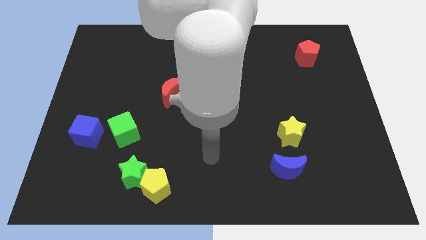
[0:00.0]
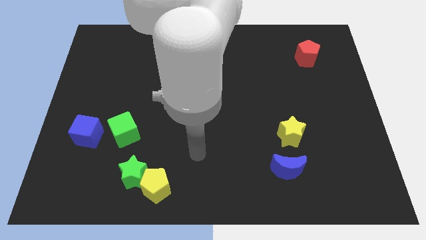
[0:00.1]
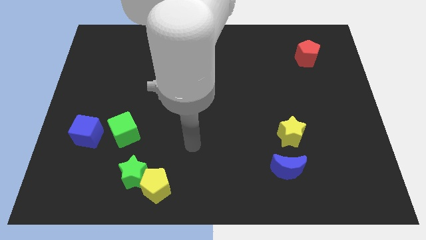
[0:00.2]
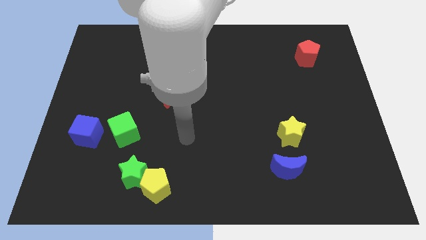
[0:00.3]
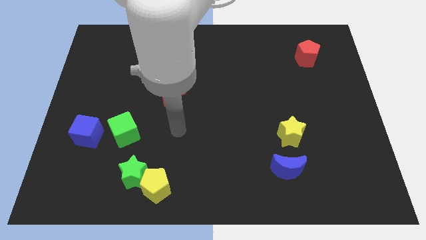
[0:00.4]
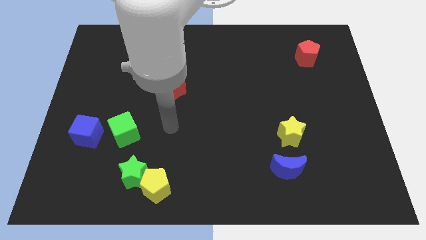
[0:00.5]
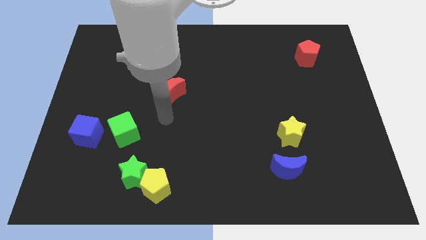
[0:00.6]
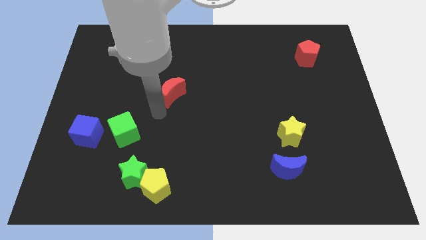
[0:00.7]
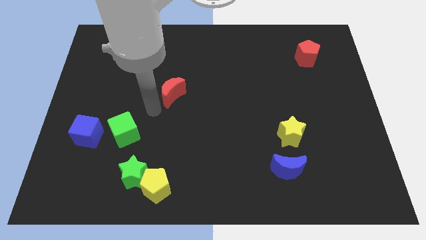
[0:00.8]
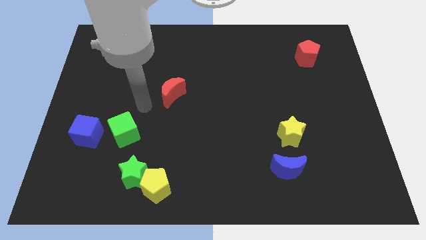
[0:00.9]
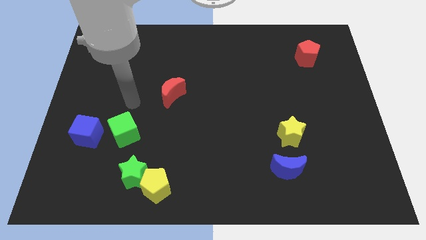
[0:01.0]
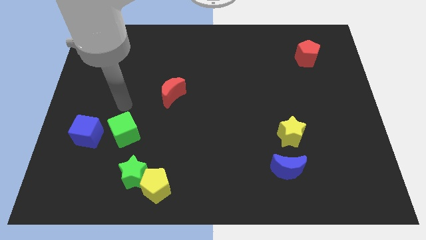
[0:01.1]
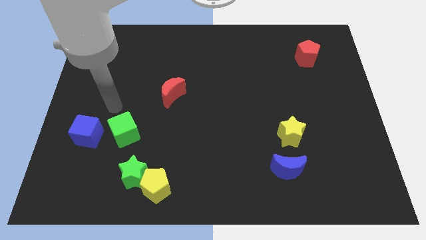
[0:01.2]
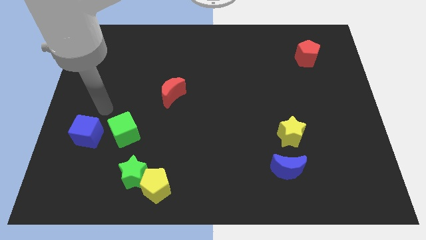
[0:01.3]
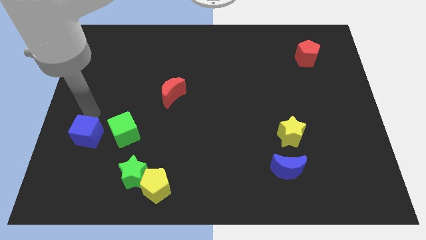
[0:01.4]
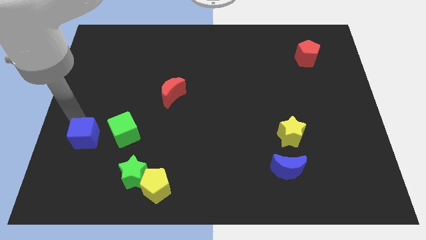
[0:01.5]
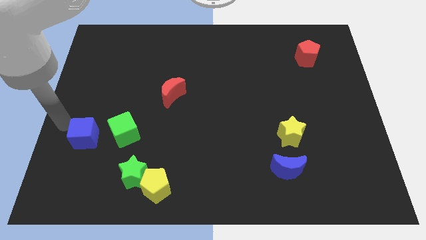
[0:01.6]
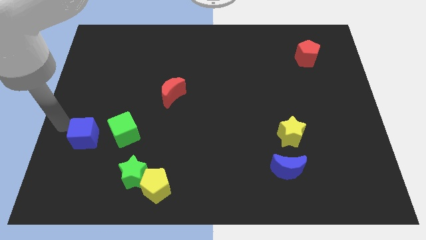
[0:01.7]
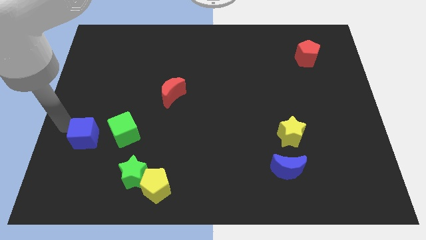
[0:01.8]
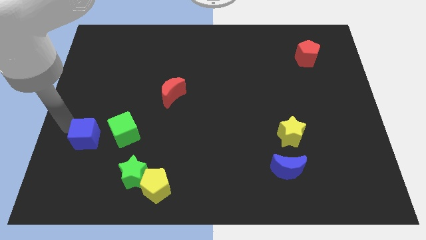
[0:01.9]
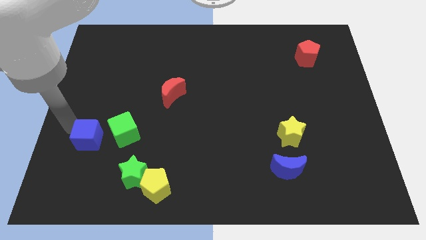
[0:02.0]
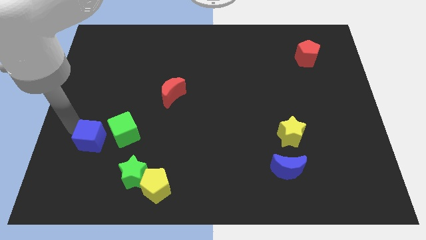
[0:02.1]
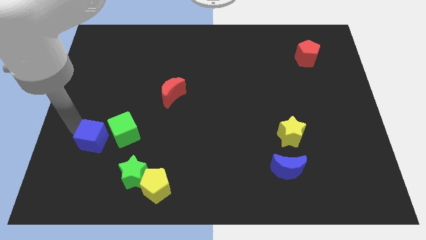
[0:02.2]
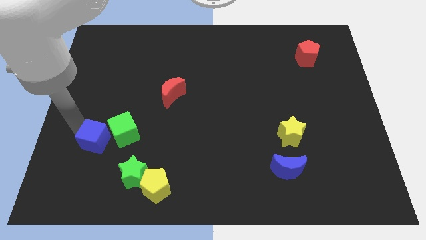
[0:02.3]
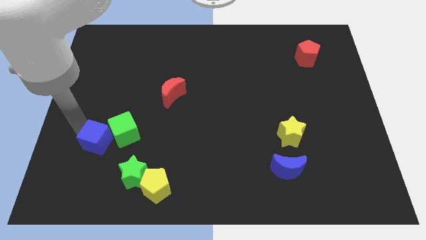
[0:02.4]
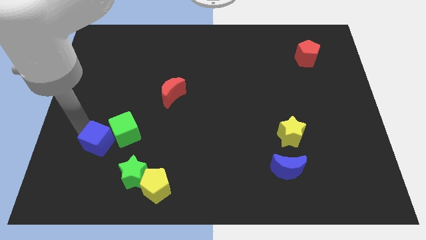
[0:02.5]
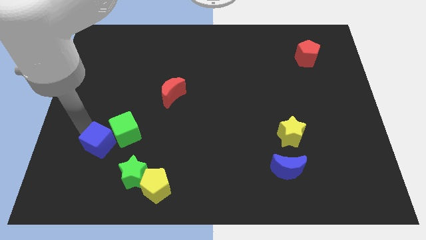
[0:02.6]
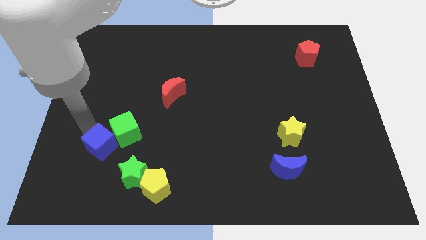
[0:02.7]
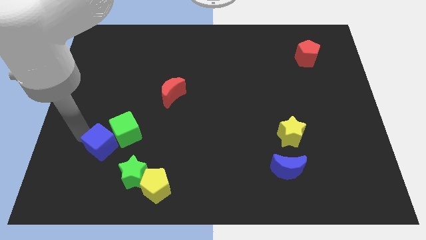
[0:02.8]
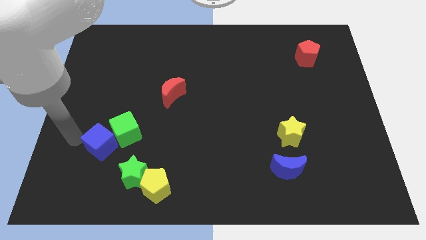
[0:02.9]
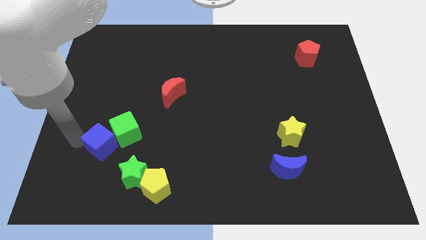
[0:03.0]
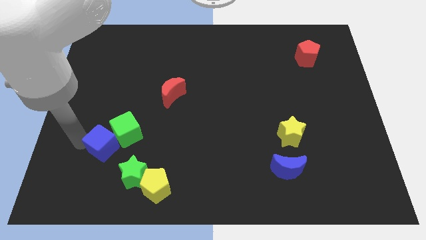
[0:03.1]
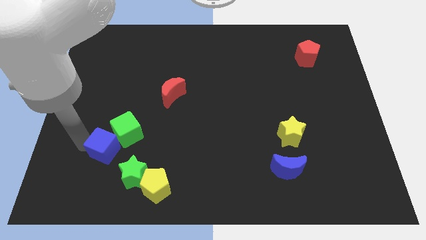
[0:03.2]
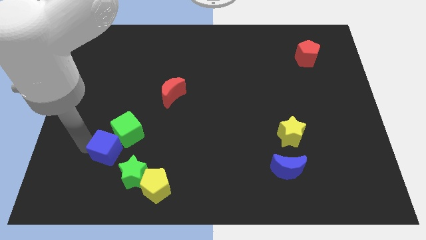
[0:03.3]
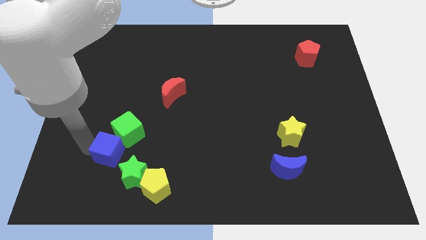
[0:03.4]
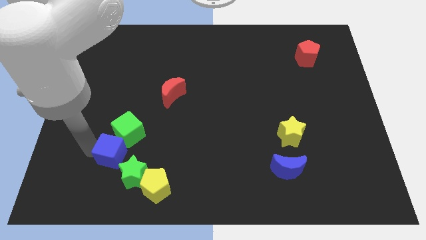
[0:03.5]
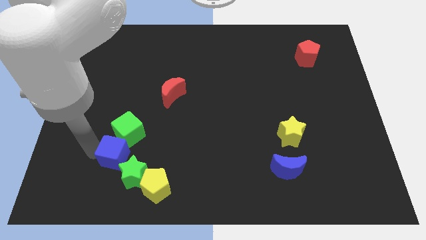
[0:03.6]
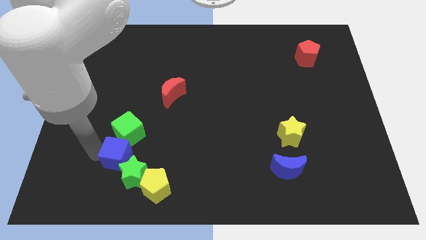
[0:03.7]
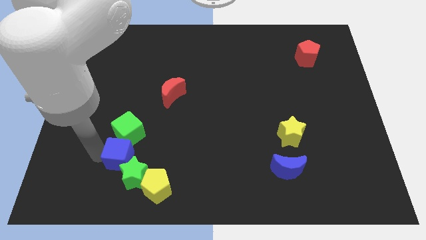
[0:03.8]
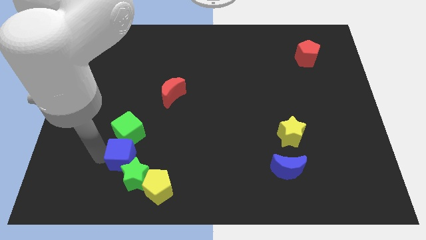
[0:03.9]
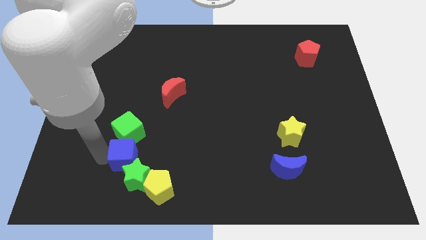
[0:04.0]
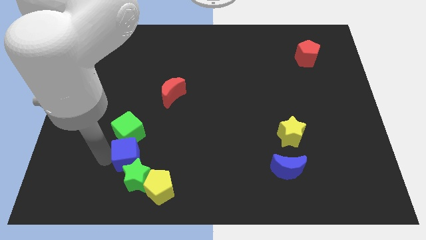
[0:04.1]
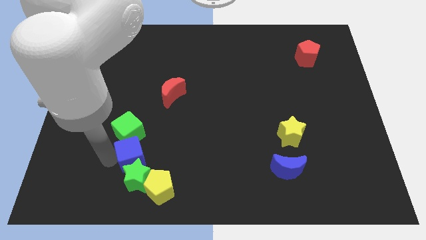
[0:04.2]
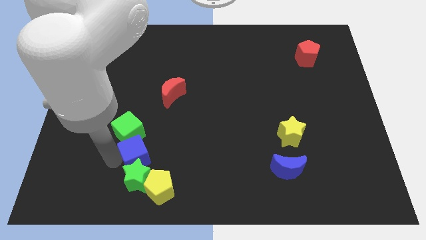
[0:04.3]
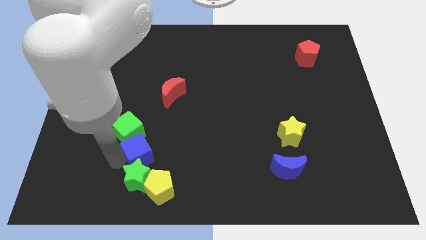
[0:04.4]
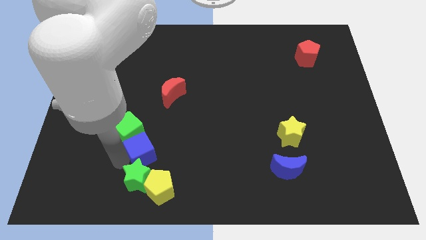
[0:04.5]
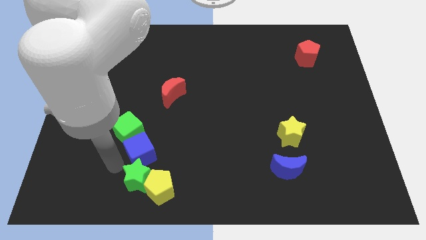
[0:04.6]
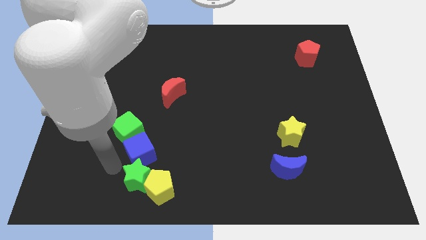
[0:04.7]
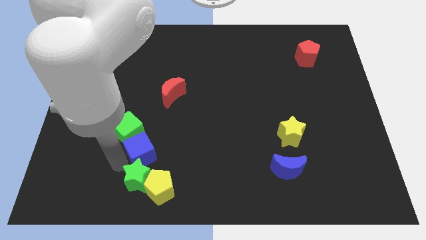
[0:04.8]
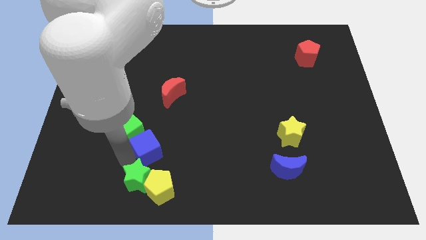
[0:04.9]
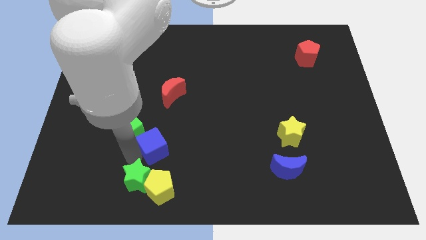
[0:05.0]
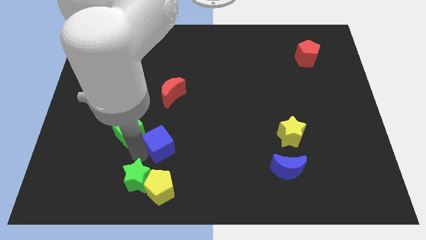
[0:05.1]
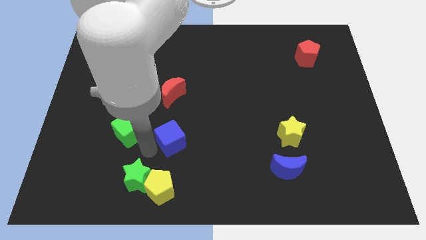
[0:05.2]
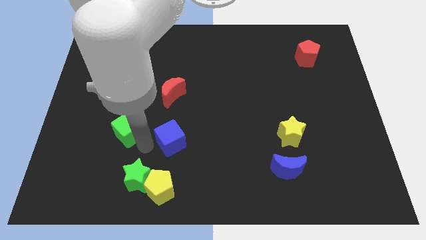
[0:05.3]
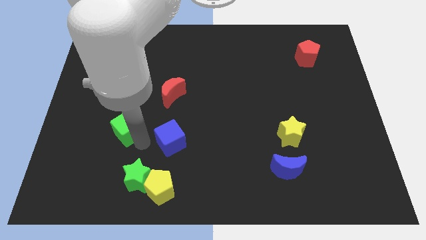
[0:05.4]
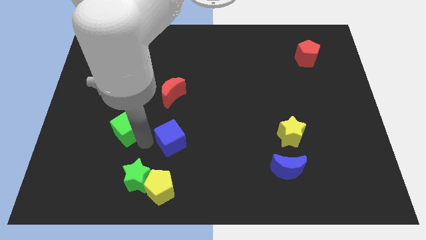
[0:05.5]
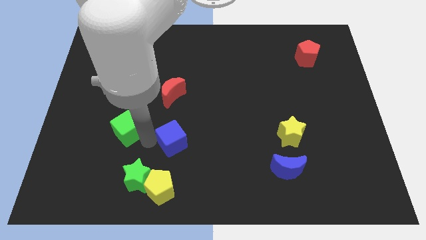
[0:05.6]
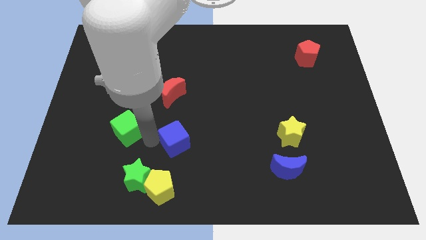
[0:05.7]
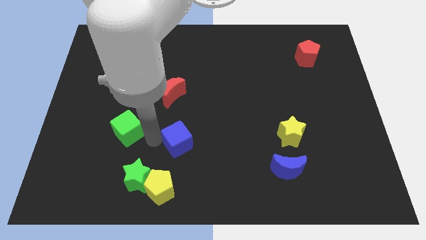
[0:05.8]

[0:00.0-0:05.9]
push the blue cube right

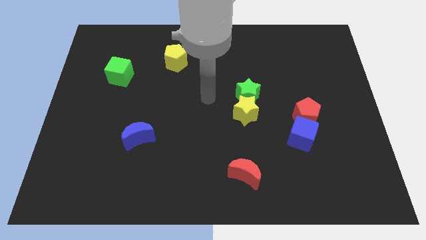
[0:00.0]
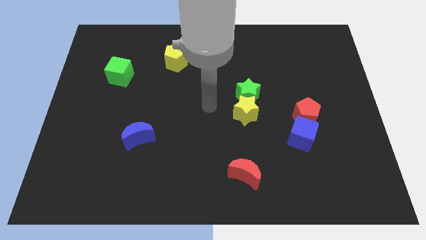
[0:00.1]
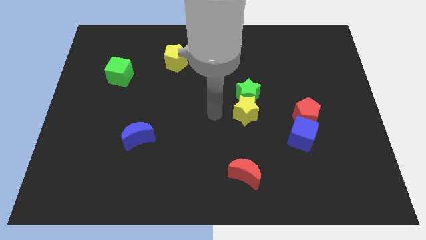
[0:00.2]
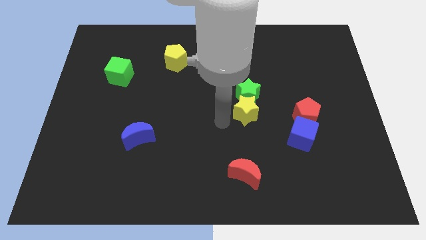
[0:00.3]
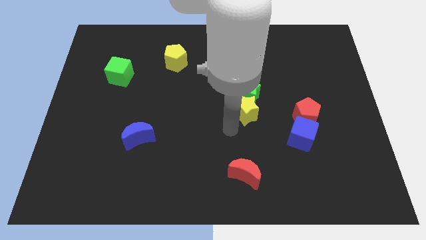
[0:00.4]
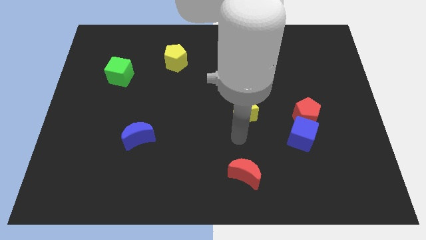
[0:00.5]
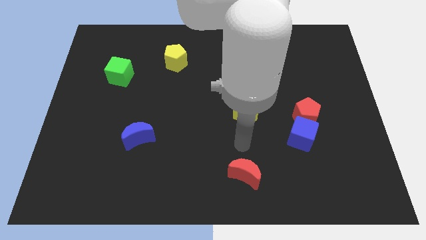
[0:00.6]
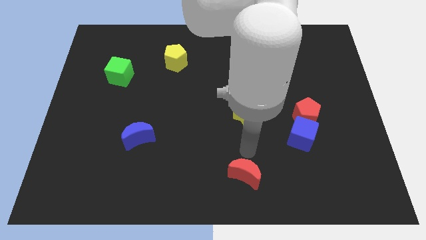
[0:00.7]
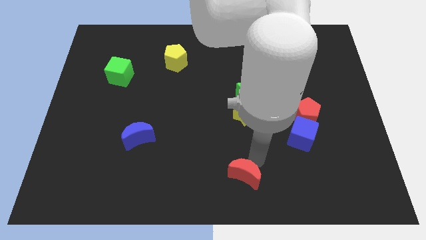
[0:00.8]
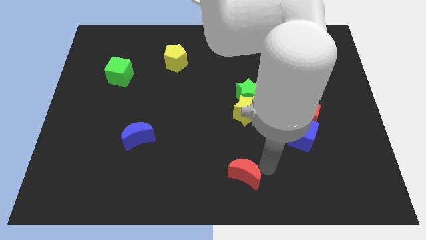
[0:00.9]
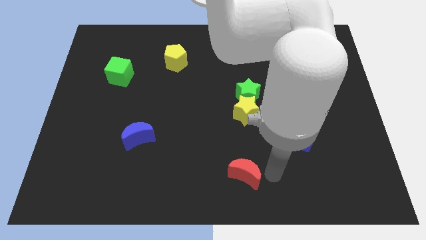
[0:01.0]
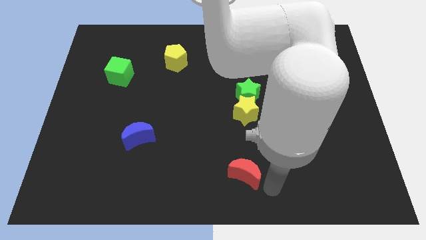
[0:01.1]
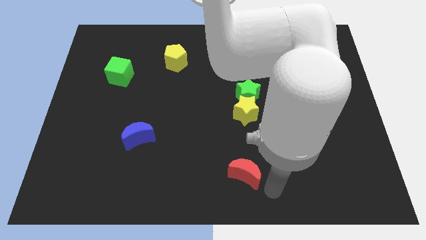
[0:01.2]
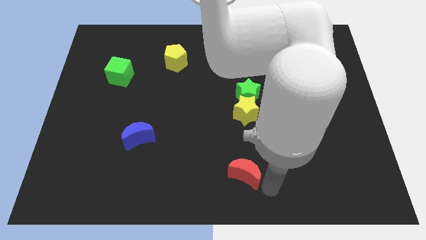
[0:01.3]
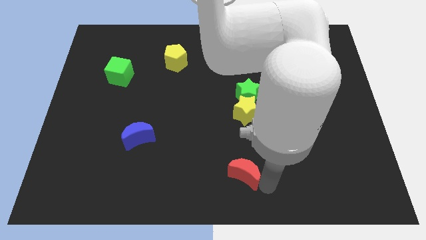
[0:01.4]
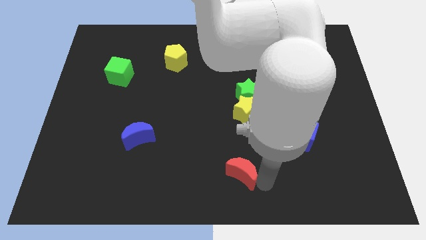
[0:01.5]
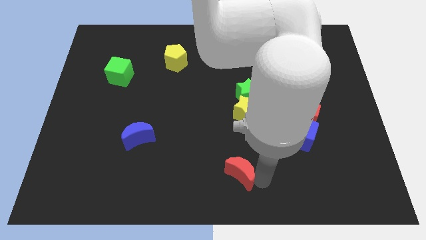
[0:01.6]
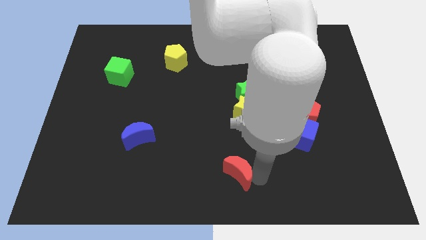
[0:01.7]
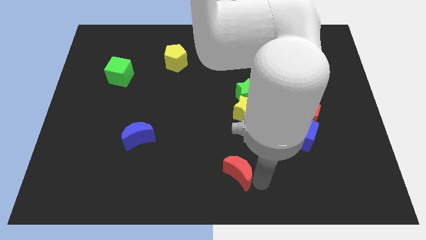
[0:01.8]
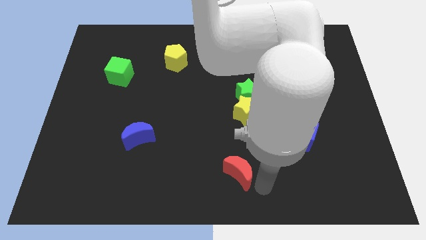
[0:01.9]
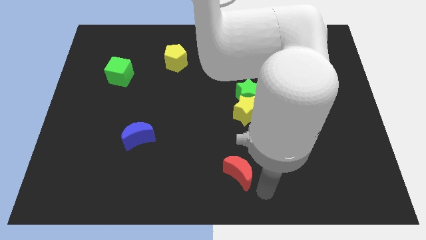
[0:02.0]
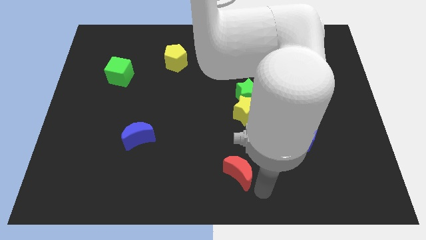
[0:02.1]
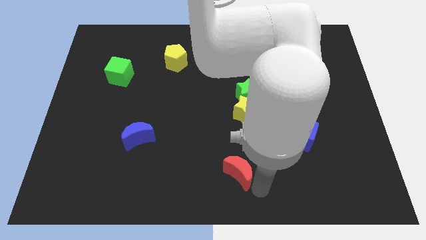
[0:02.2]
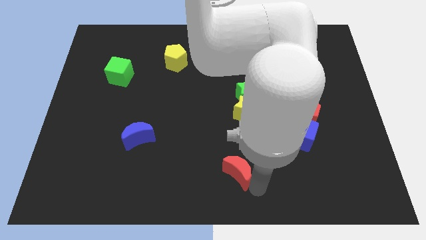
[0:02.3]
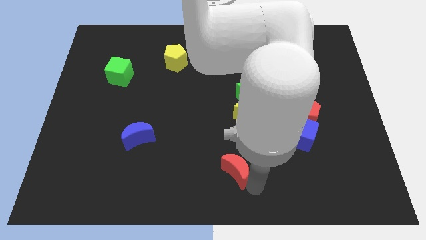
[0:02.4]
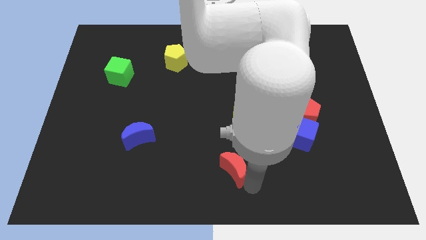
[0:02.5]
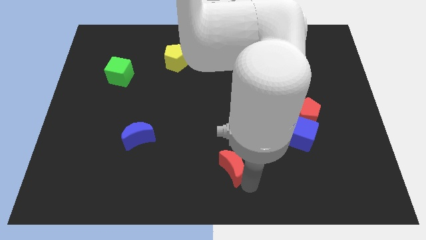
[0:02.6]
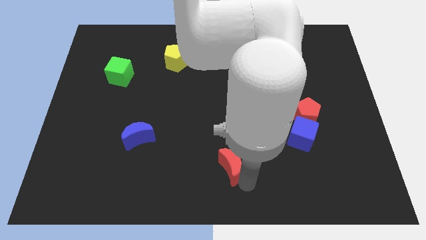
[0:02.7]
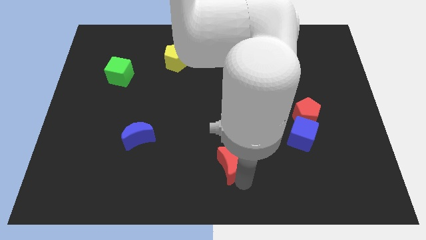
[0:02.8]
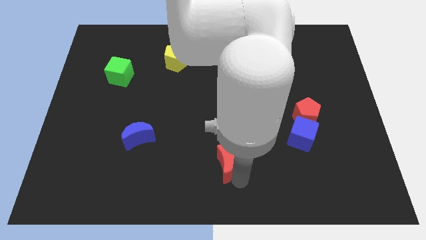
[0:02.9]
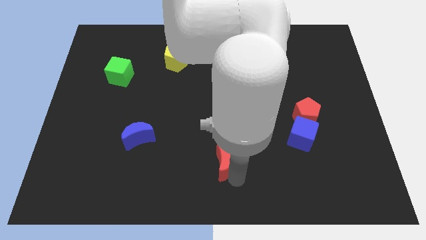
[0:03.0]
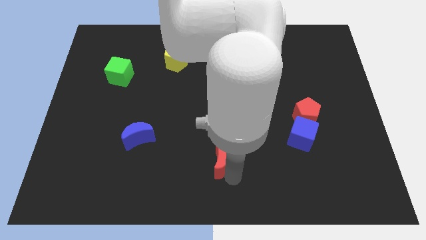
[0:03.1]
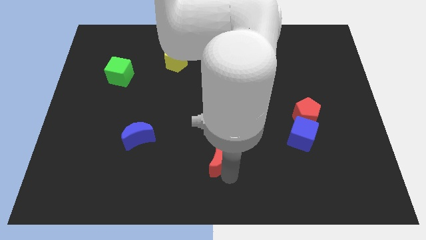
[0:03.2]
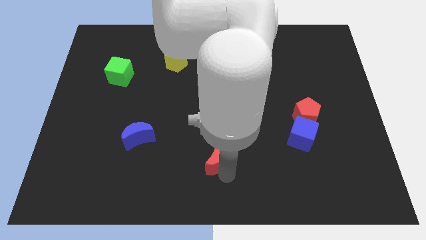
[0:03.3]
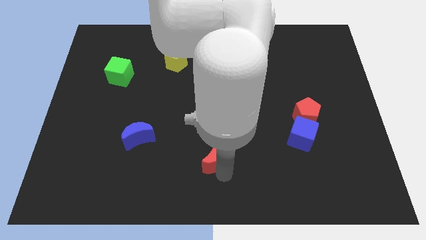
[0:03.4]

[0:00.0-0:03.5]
slightly move the red moon upwards and then to the left
